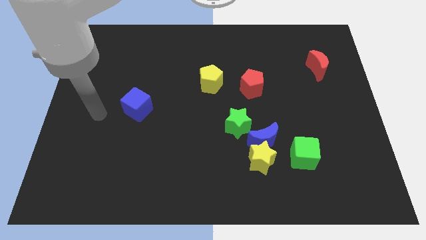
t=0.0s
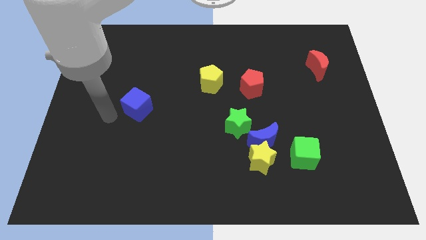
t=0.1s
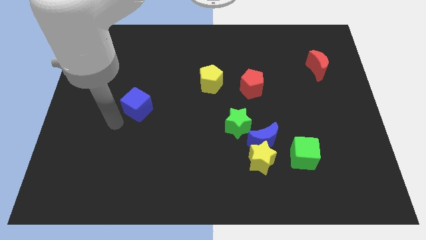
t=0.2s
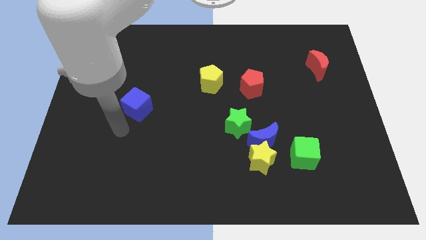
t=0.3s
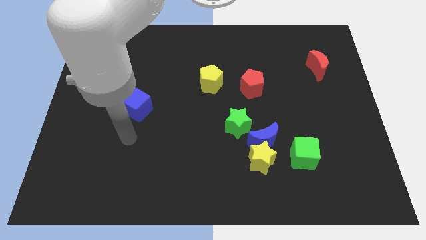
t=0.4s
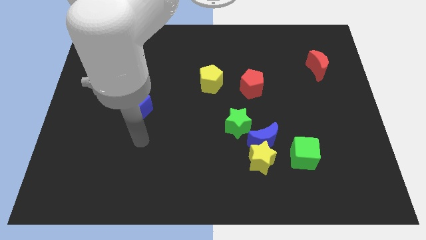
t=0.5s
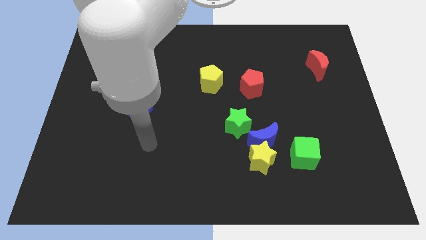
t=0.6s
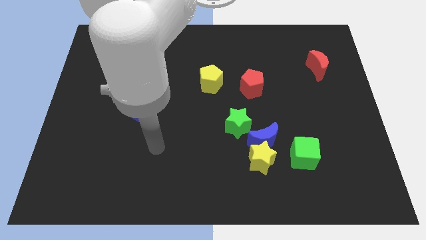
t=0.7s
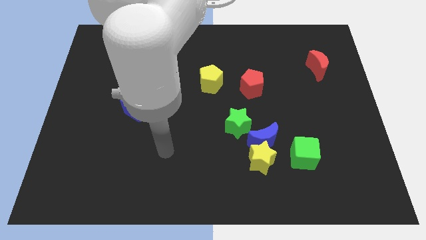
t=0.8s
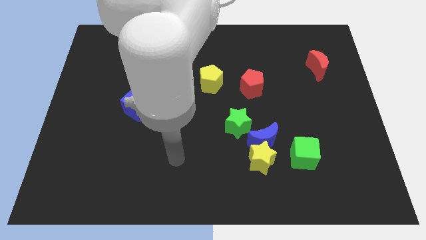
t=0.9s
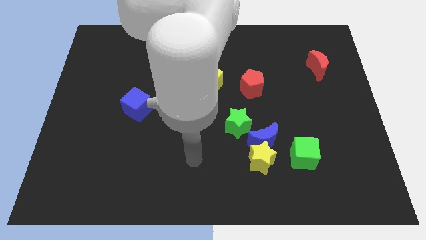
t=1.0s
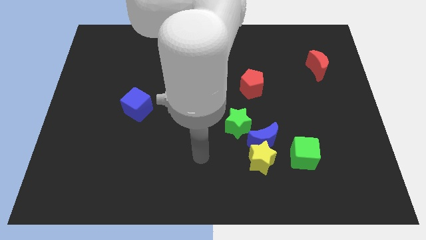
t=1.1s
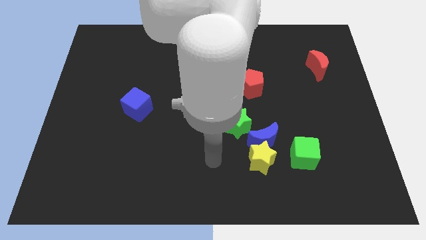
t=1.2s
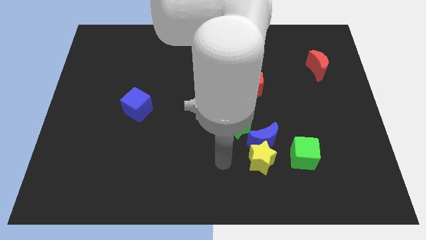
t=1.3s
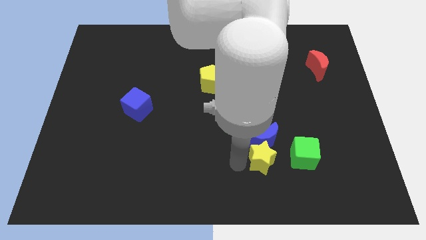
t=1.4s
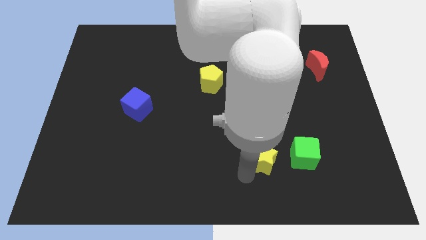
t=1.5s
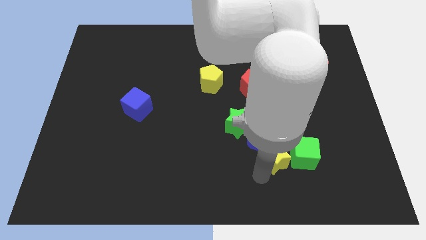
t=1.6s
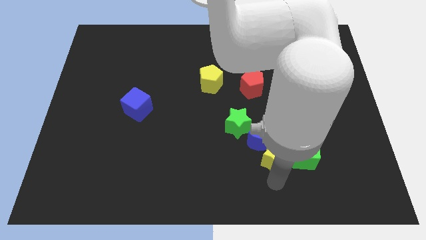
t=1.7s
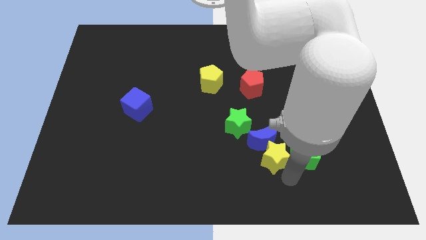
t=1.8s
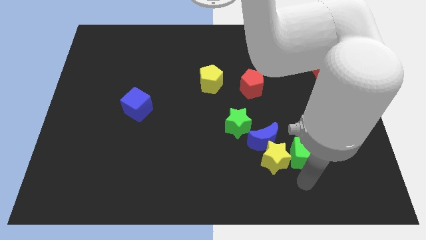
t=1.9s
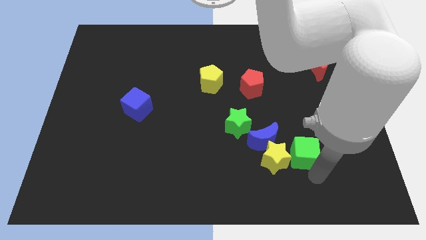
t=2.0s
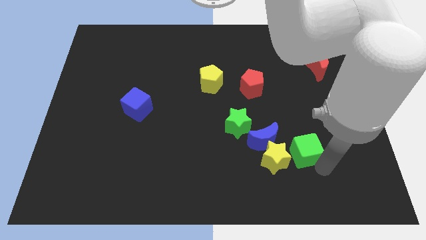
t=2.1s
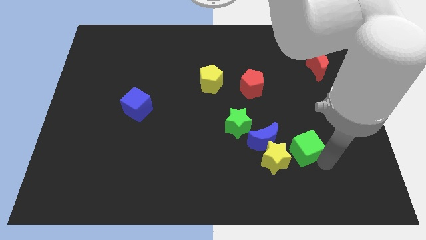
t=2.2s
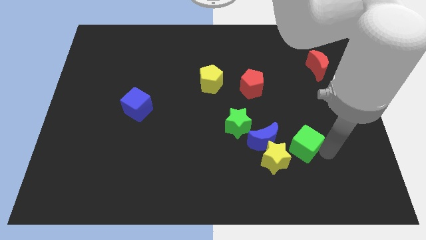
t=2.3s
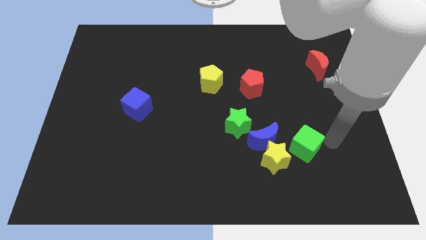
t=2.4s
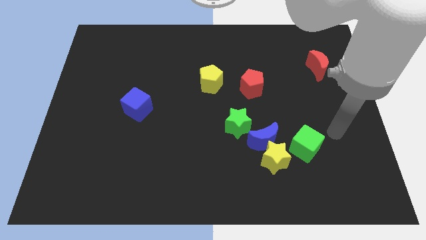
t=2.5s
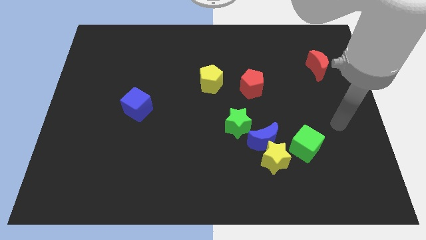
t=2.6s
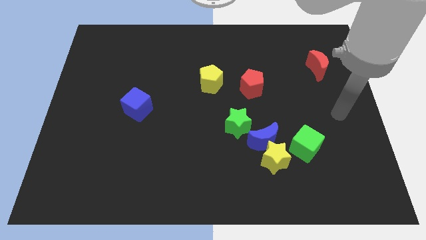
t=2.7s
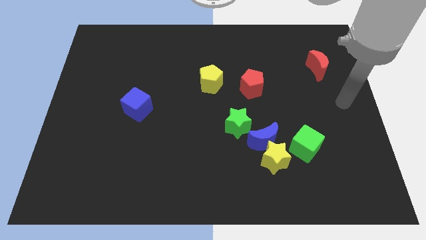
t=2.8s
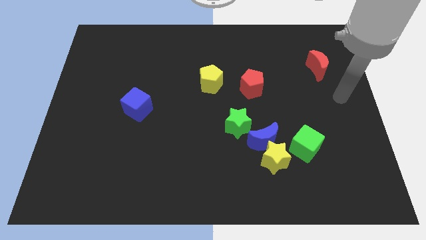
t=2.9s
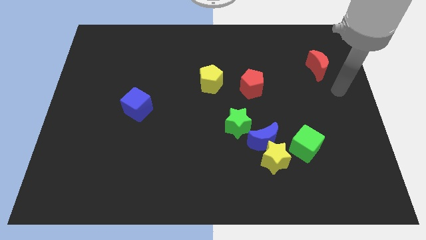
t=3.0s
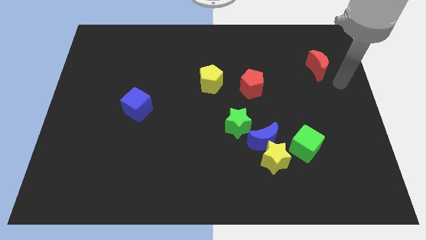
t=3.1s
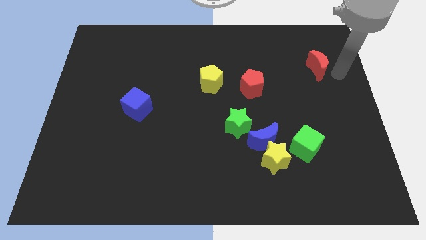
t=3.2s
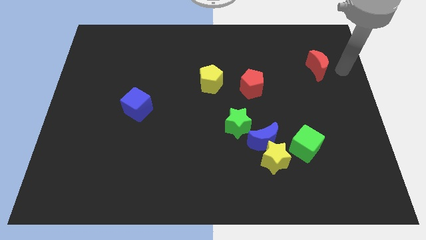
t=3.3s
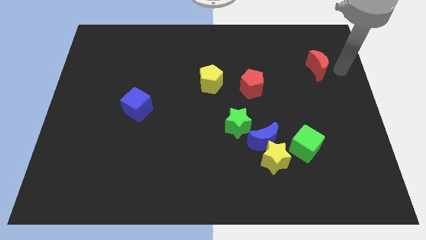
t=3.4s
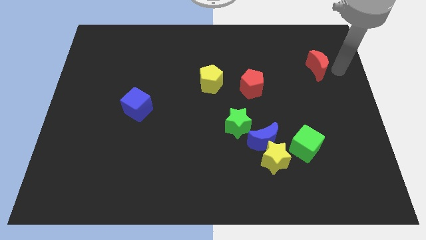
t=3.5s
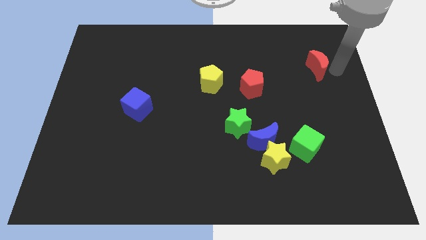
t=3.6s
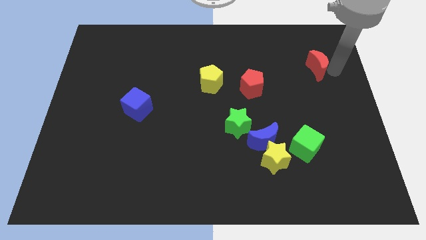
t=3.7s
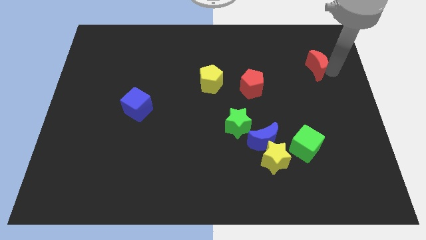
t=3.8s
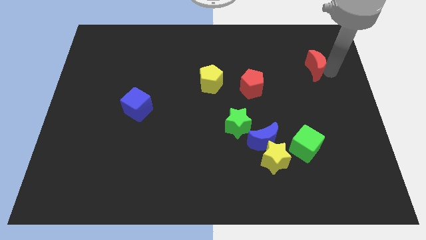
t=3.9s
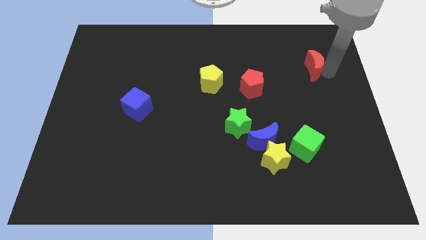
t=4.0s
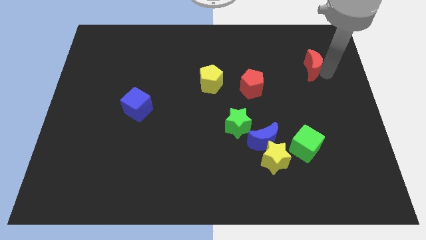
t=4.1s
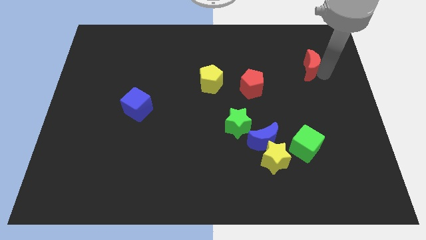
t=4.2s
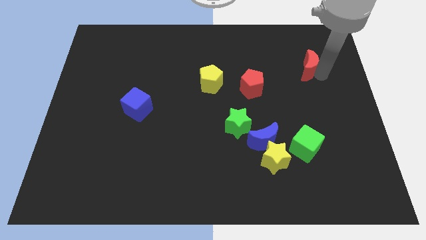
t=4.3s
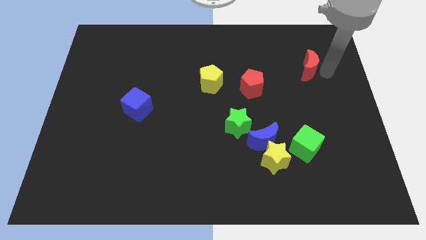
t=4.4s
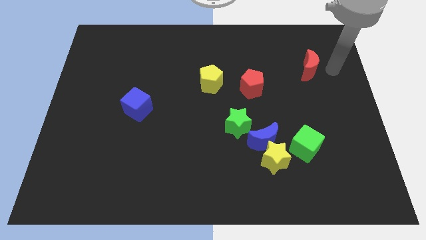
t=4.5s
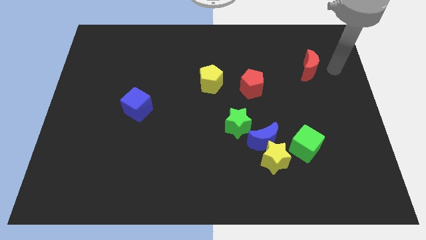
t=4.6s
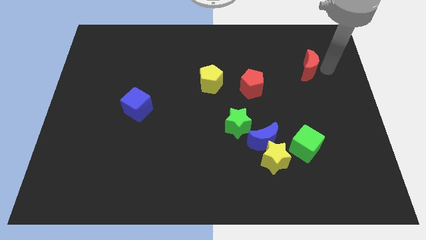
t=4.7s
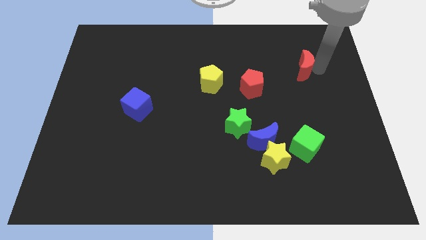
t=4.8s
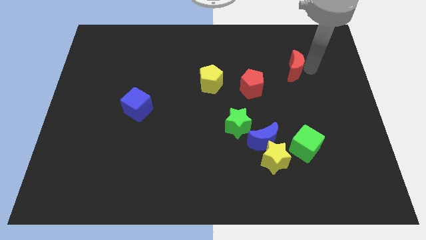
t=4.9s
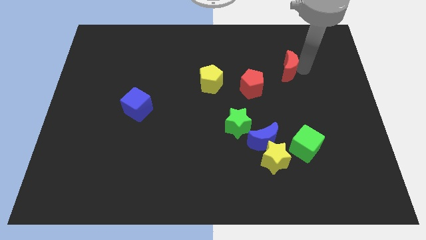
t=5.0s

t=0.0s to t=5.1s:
slightly move the red moon left

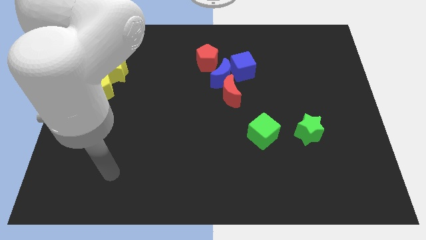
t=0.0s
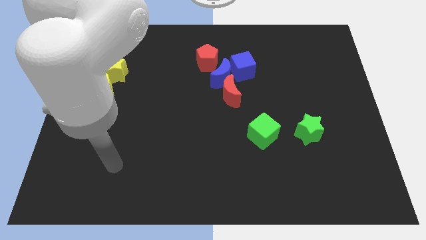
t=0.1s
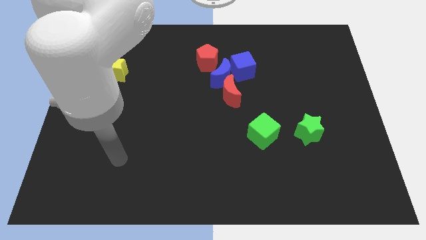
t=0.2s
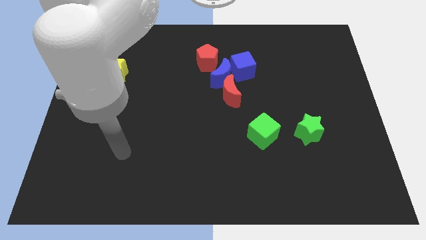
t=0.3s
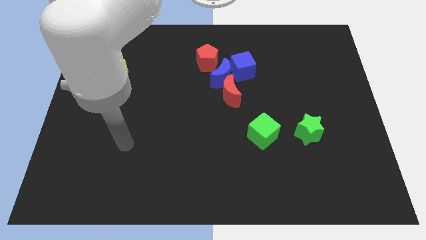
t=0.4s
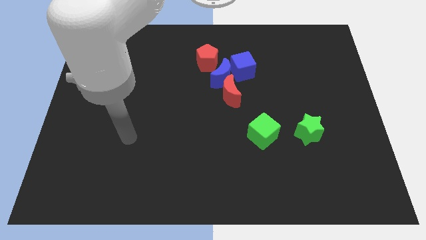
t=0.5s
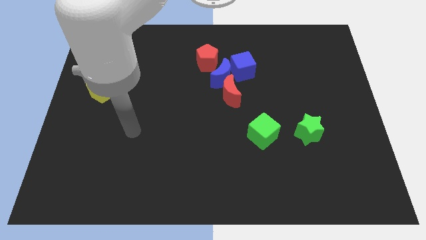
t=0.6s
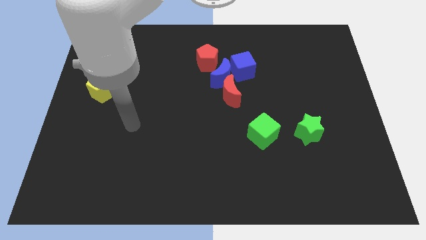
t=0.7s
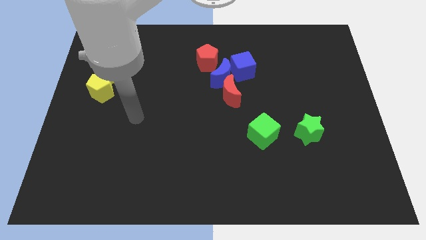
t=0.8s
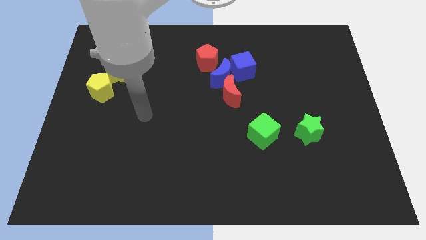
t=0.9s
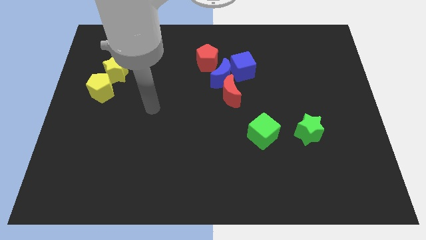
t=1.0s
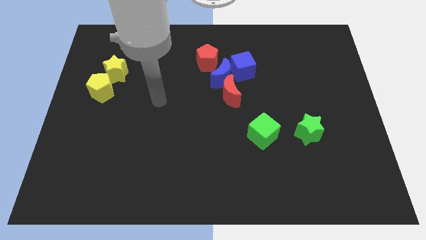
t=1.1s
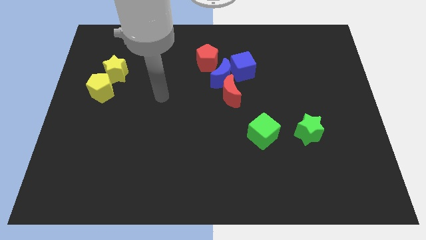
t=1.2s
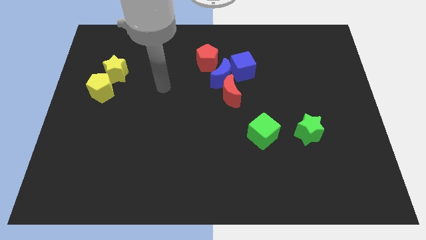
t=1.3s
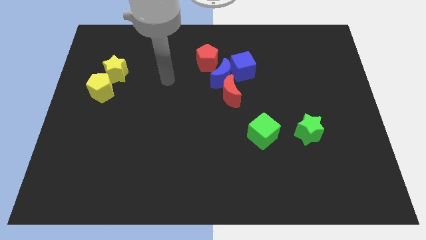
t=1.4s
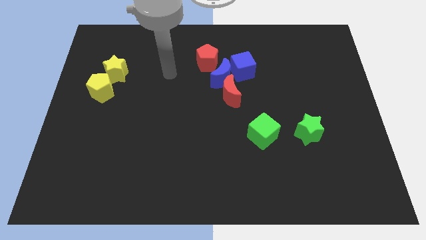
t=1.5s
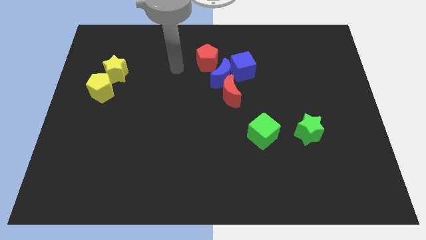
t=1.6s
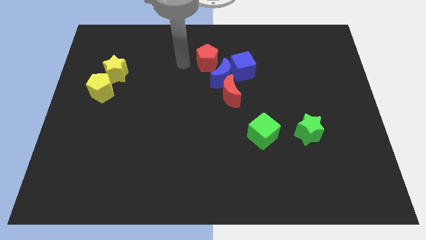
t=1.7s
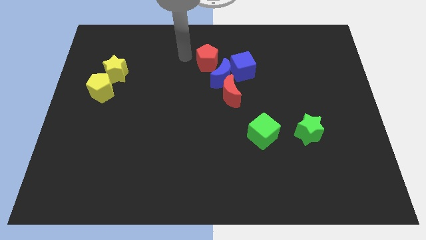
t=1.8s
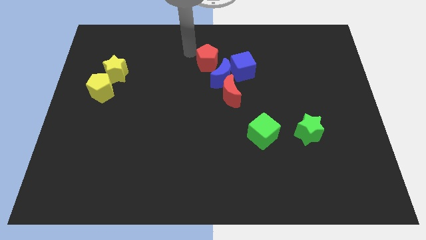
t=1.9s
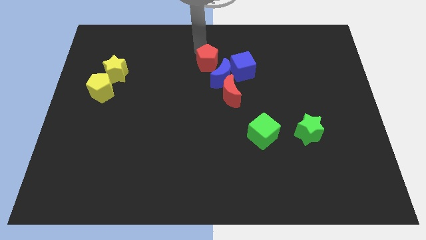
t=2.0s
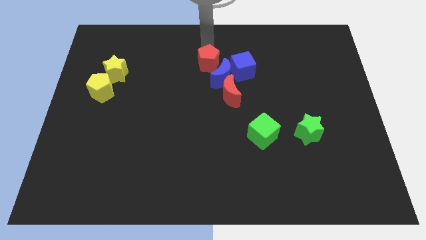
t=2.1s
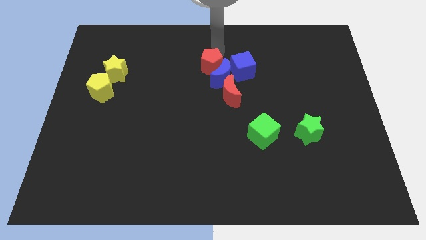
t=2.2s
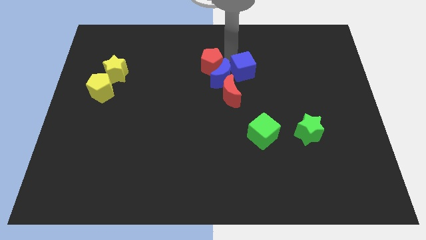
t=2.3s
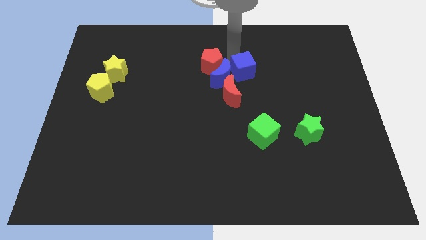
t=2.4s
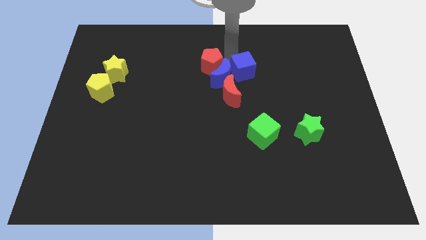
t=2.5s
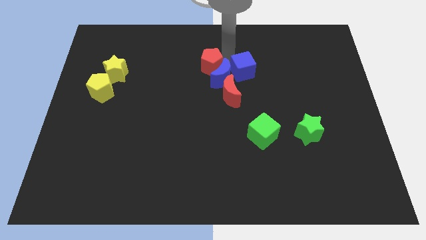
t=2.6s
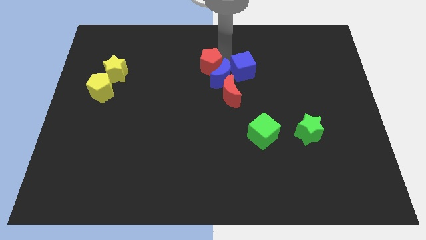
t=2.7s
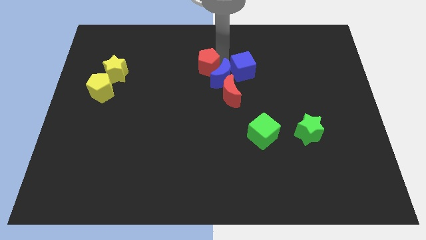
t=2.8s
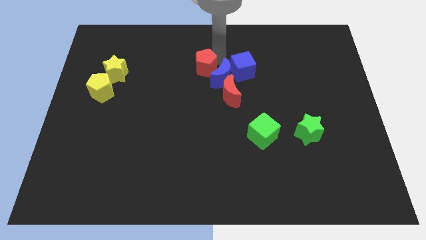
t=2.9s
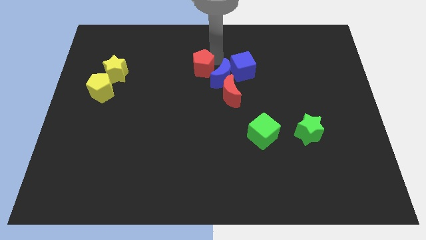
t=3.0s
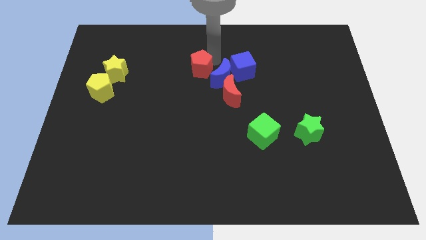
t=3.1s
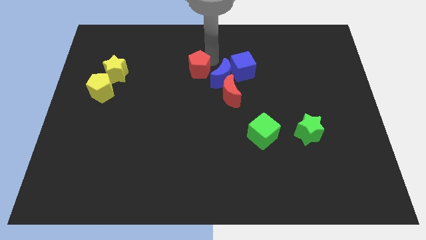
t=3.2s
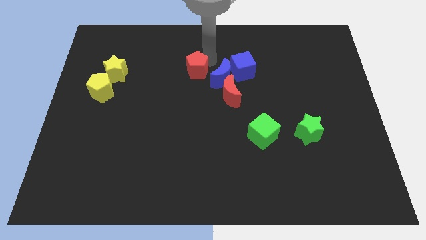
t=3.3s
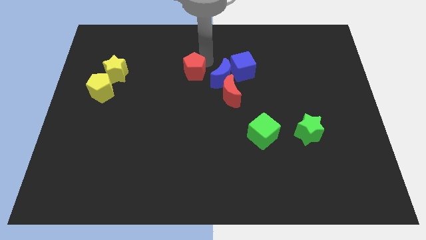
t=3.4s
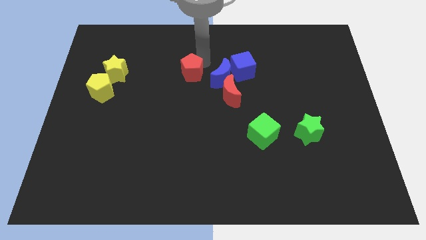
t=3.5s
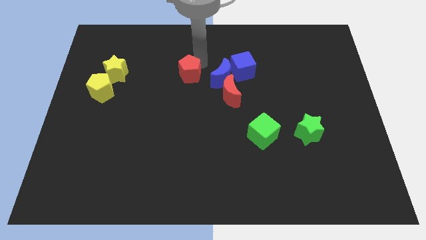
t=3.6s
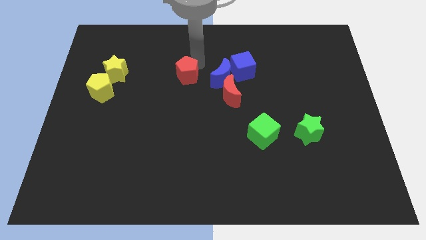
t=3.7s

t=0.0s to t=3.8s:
move the red pentagon down and left a bit
